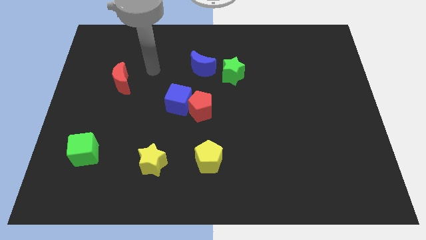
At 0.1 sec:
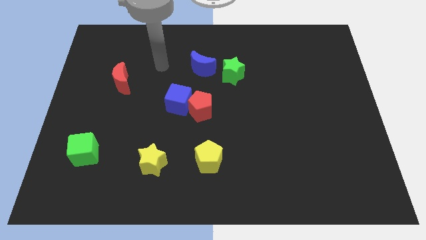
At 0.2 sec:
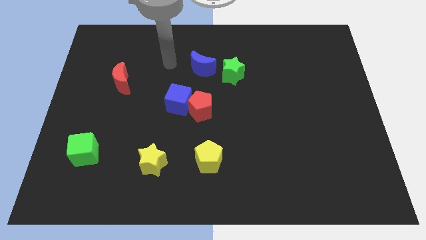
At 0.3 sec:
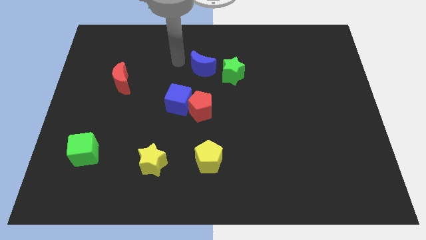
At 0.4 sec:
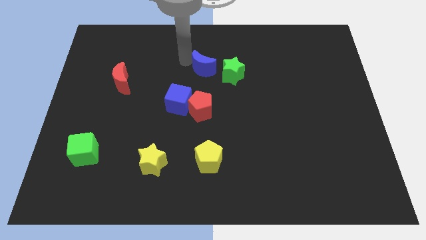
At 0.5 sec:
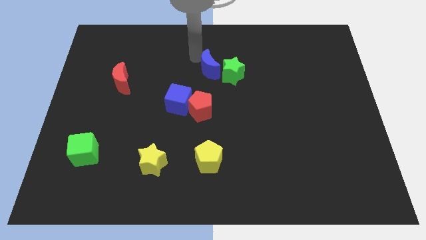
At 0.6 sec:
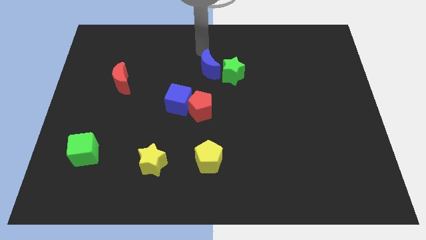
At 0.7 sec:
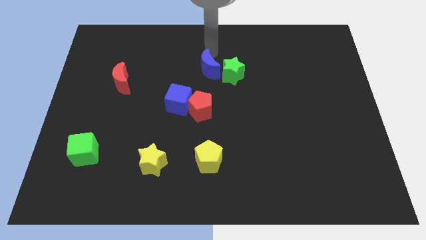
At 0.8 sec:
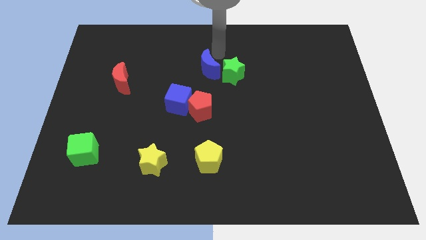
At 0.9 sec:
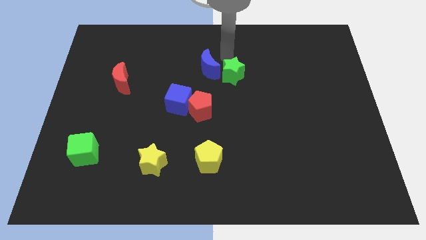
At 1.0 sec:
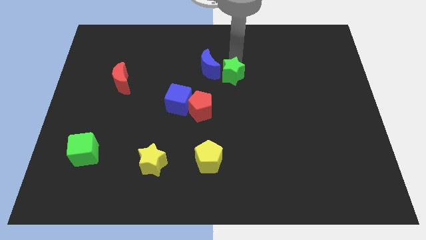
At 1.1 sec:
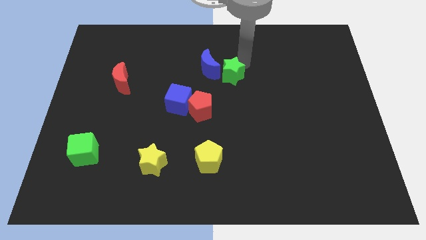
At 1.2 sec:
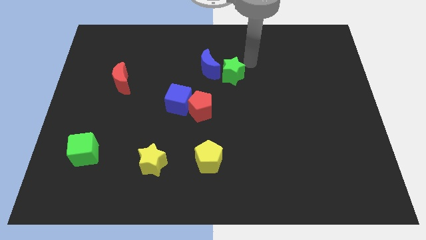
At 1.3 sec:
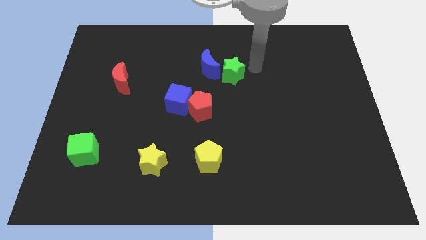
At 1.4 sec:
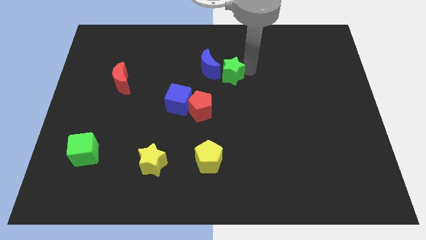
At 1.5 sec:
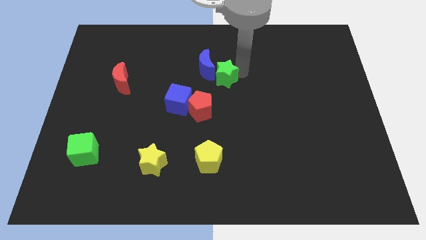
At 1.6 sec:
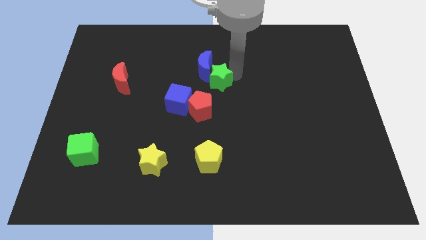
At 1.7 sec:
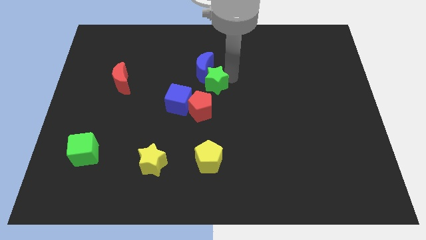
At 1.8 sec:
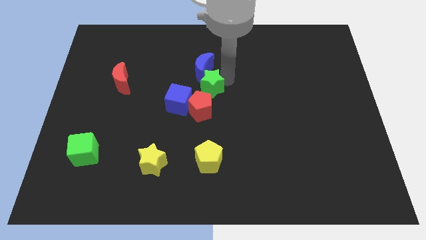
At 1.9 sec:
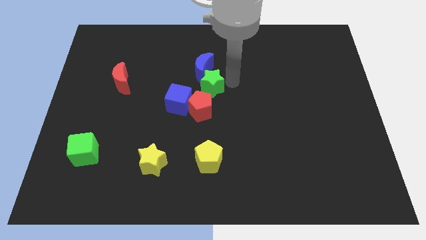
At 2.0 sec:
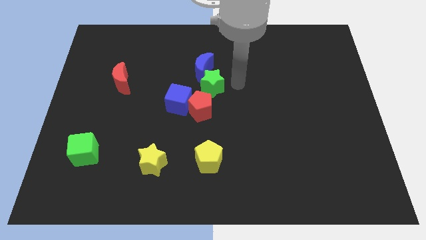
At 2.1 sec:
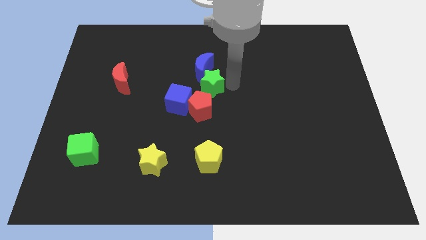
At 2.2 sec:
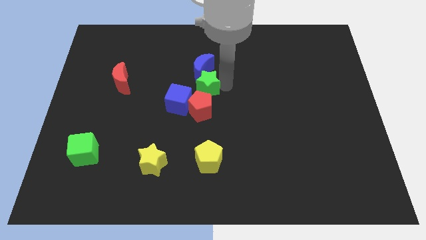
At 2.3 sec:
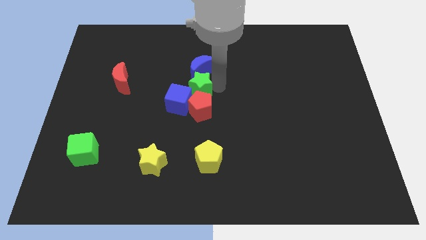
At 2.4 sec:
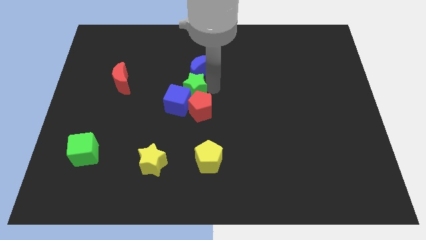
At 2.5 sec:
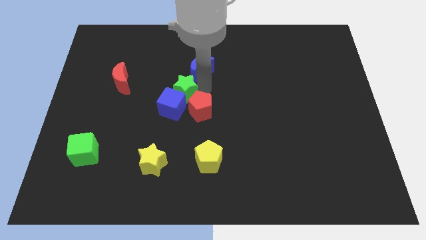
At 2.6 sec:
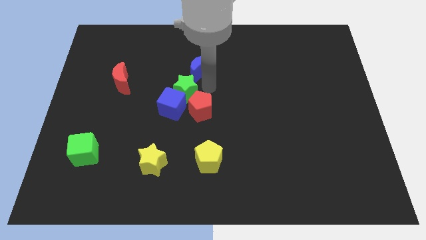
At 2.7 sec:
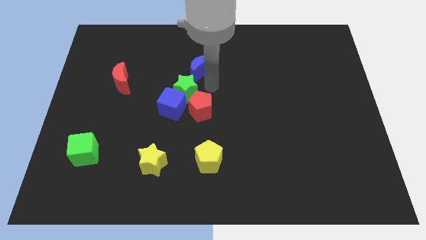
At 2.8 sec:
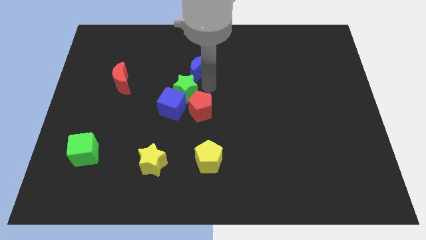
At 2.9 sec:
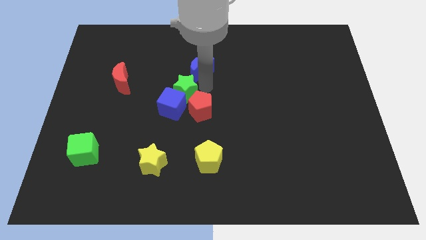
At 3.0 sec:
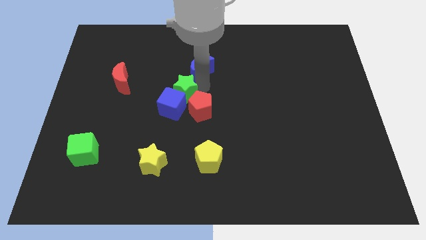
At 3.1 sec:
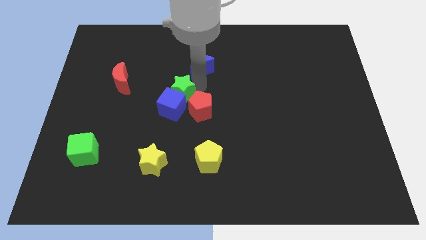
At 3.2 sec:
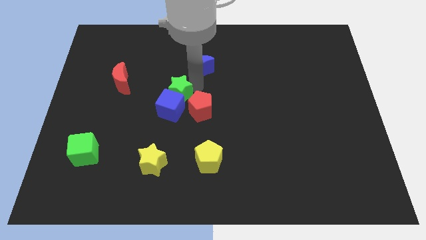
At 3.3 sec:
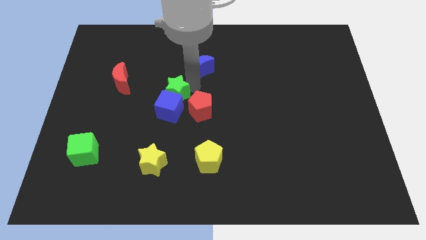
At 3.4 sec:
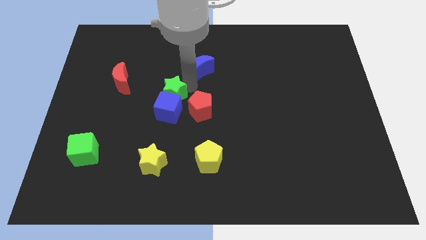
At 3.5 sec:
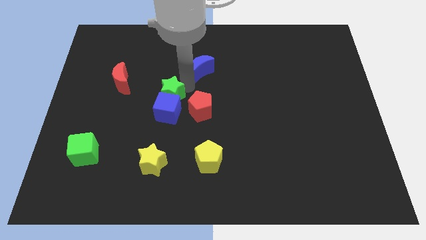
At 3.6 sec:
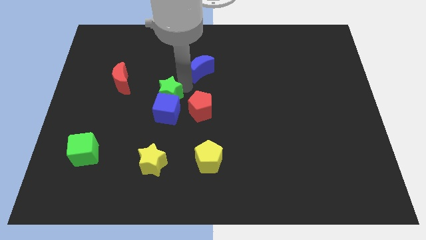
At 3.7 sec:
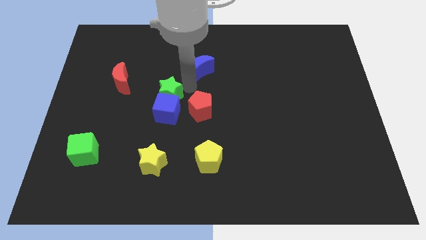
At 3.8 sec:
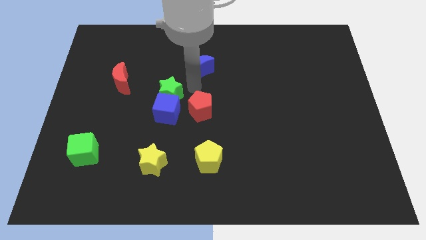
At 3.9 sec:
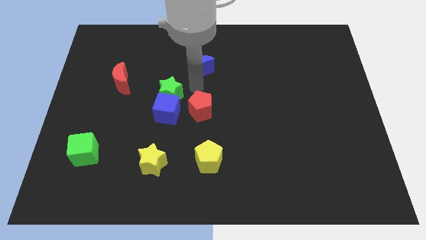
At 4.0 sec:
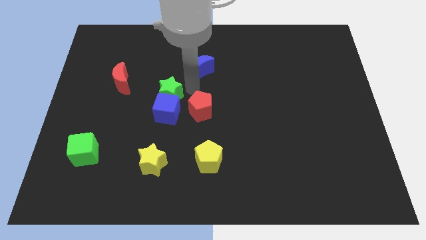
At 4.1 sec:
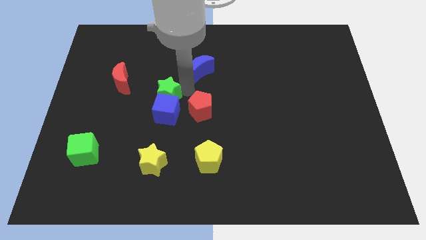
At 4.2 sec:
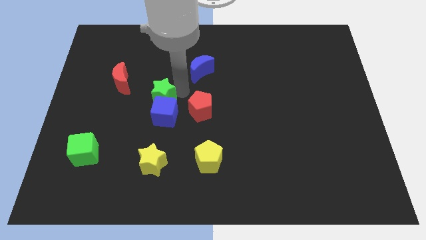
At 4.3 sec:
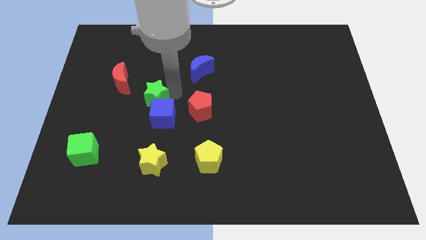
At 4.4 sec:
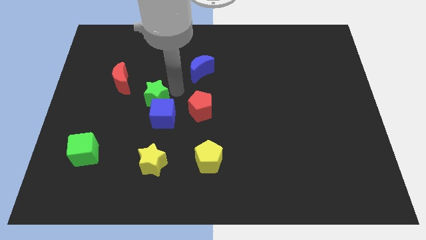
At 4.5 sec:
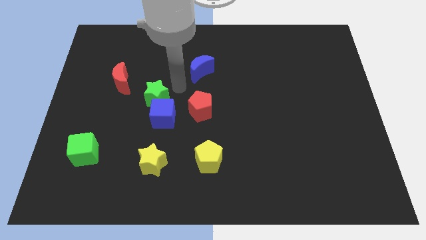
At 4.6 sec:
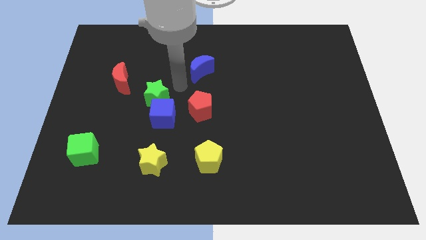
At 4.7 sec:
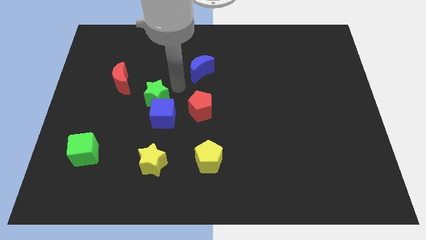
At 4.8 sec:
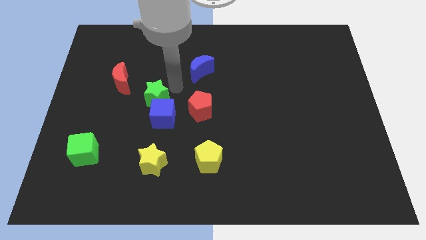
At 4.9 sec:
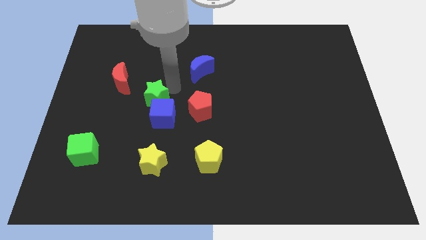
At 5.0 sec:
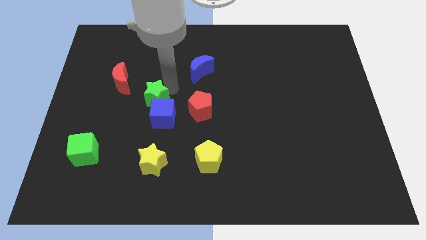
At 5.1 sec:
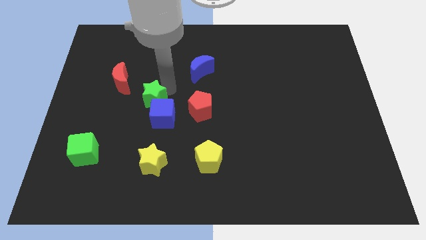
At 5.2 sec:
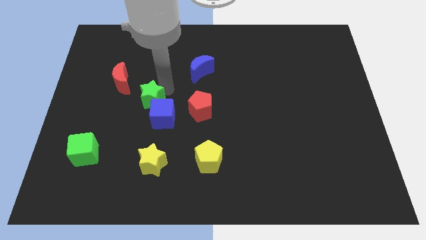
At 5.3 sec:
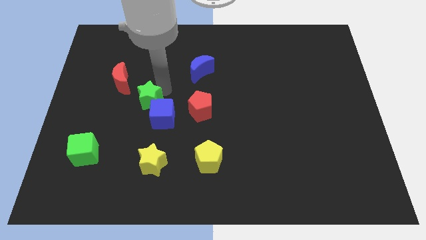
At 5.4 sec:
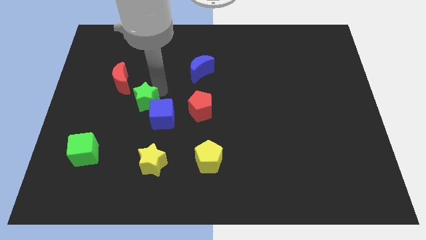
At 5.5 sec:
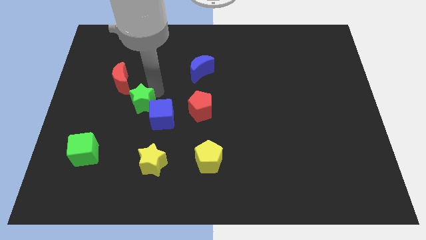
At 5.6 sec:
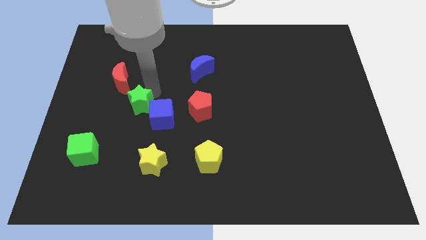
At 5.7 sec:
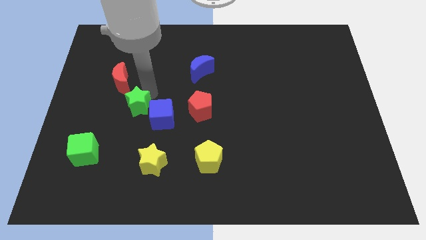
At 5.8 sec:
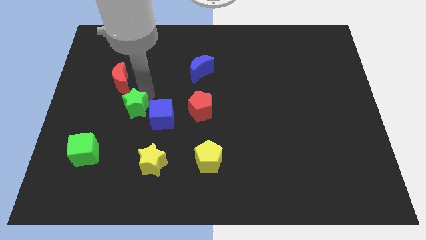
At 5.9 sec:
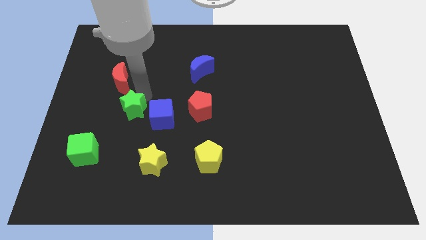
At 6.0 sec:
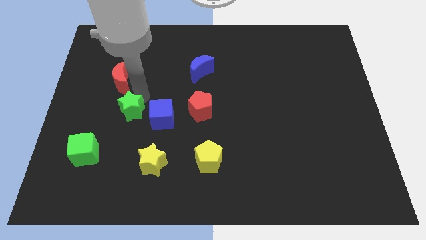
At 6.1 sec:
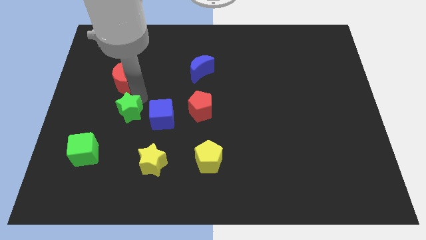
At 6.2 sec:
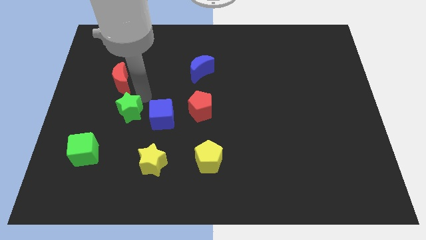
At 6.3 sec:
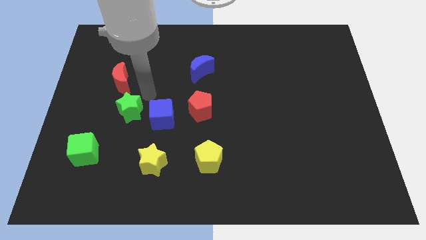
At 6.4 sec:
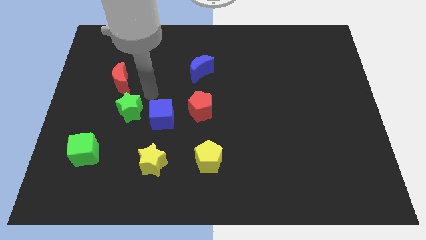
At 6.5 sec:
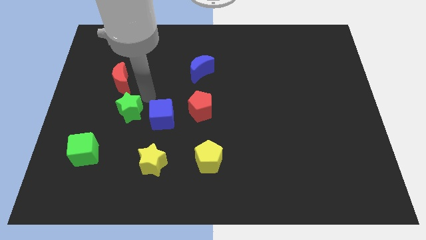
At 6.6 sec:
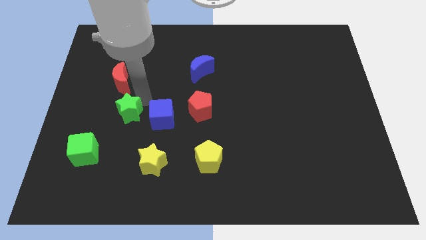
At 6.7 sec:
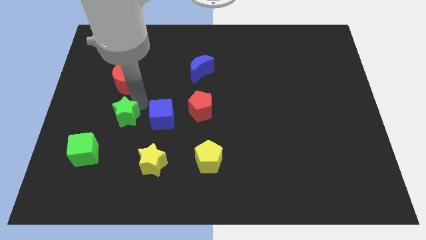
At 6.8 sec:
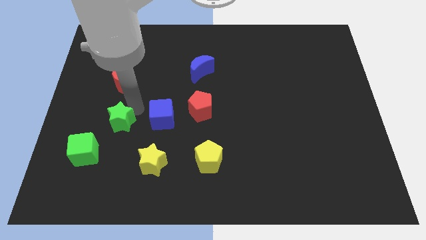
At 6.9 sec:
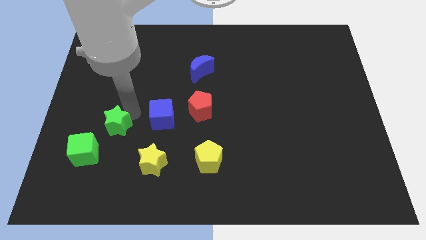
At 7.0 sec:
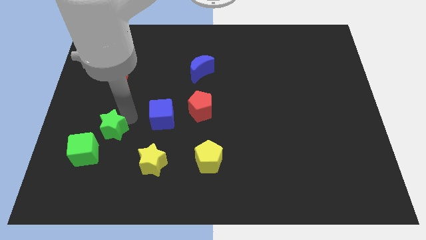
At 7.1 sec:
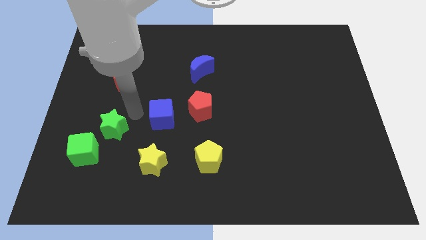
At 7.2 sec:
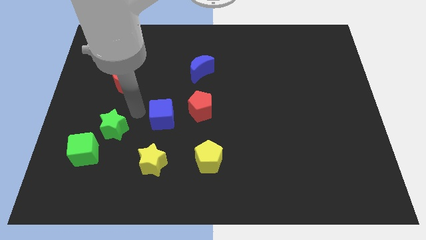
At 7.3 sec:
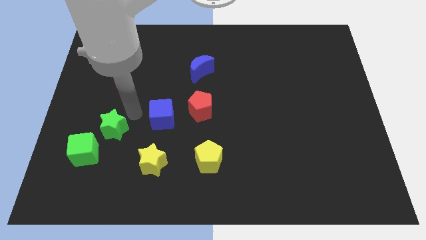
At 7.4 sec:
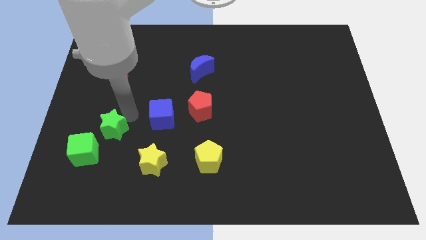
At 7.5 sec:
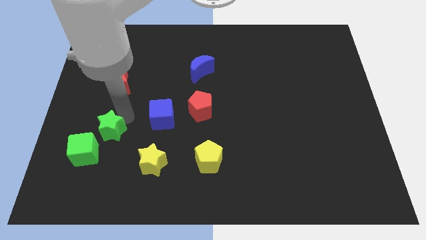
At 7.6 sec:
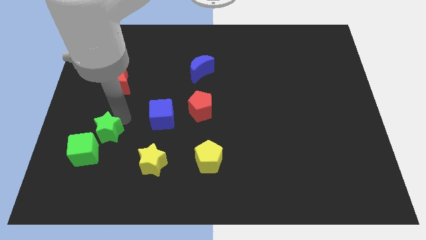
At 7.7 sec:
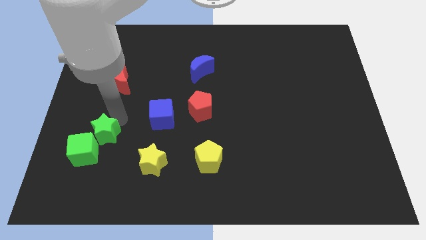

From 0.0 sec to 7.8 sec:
move the green star close to the green cube
